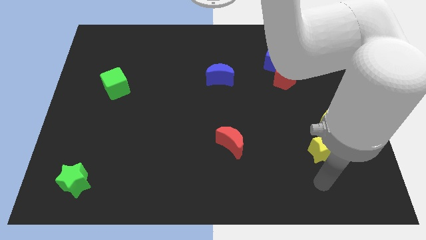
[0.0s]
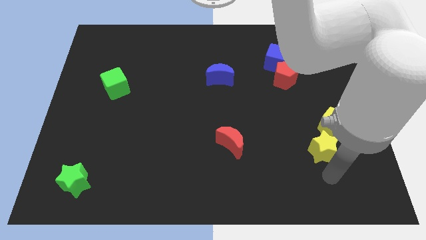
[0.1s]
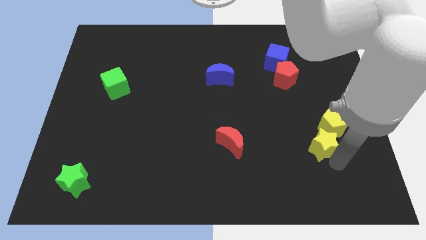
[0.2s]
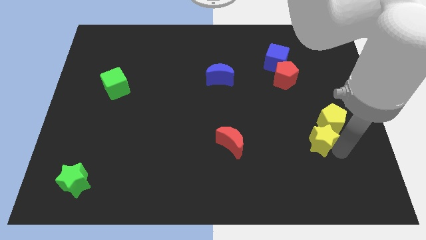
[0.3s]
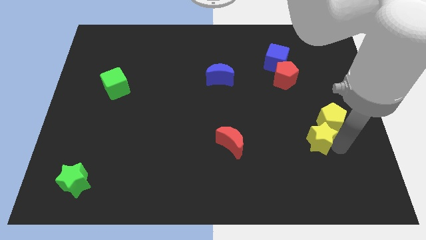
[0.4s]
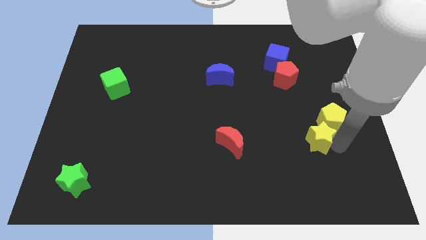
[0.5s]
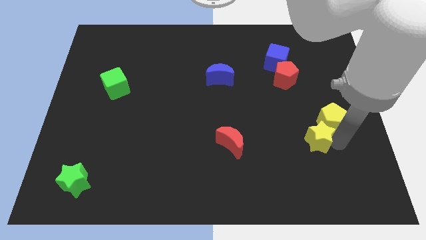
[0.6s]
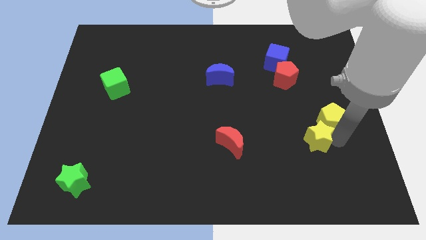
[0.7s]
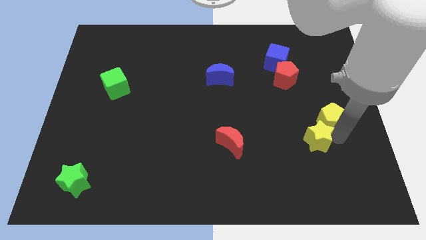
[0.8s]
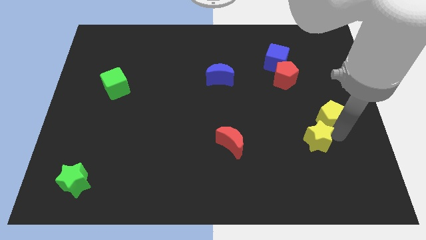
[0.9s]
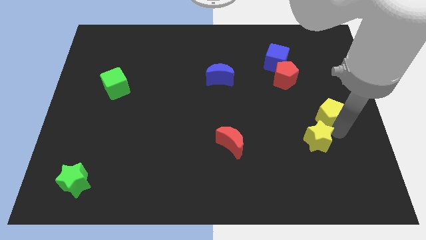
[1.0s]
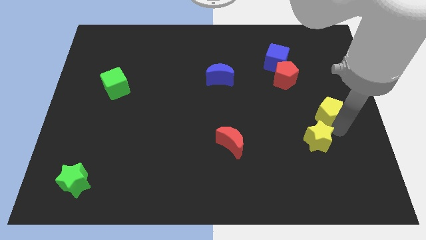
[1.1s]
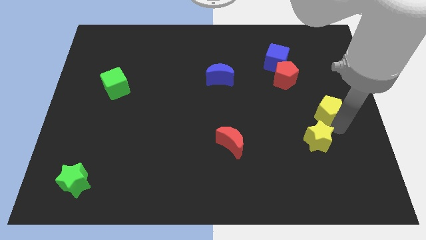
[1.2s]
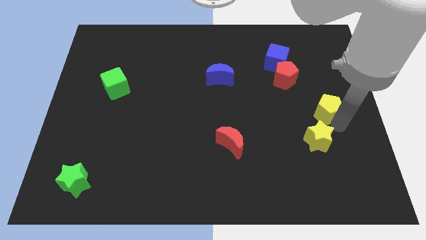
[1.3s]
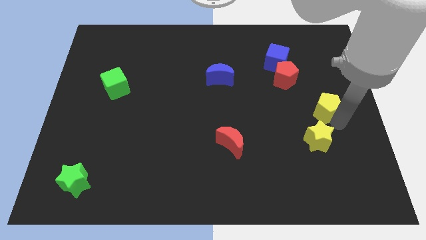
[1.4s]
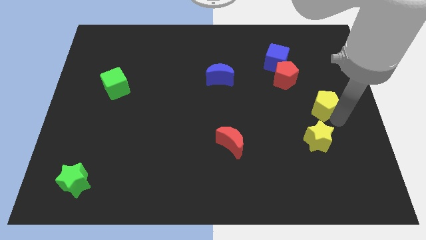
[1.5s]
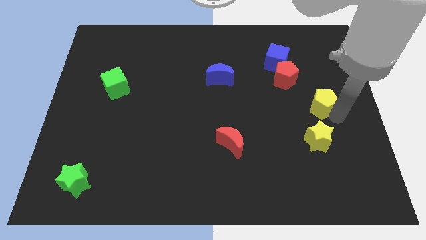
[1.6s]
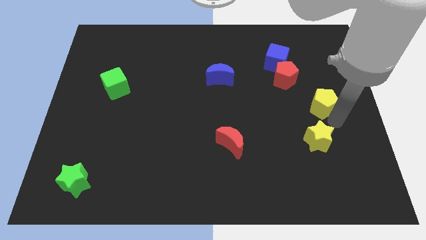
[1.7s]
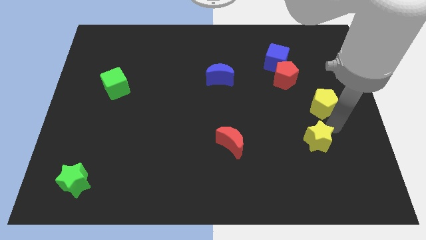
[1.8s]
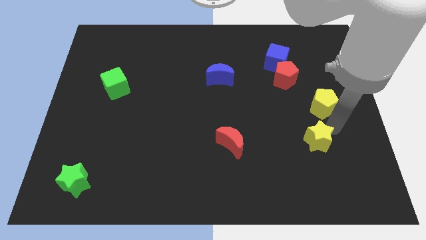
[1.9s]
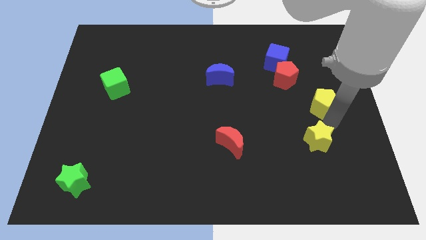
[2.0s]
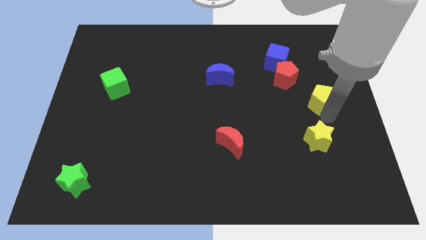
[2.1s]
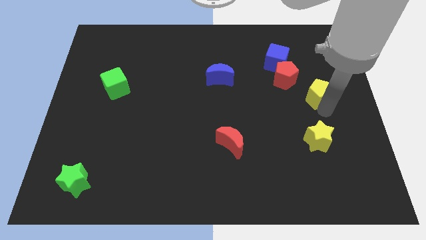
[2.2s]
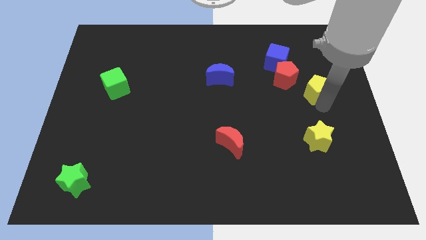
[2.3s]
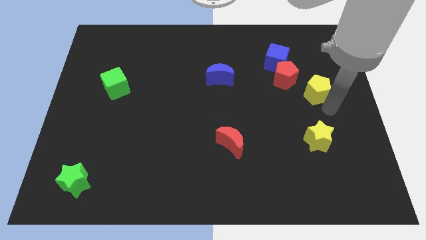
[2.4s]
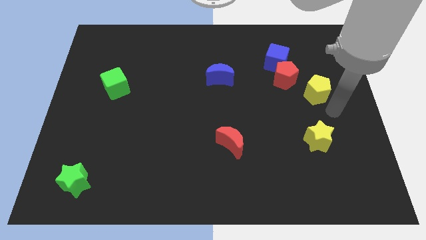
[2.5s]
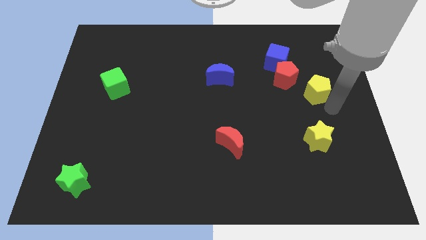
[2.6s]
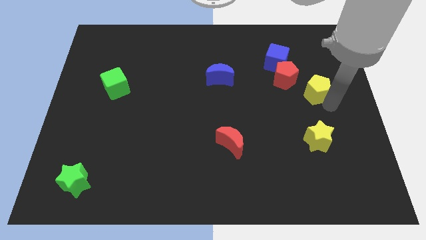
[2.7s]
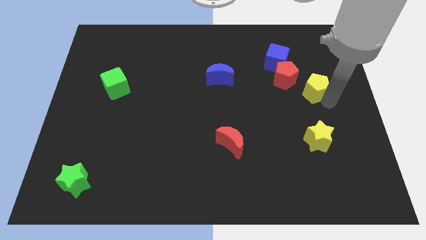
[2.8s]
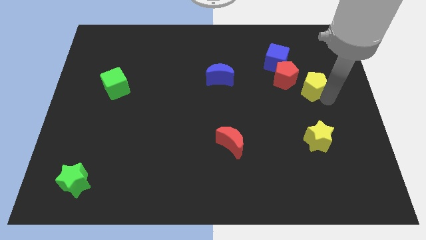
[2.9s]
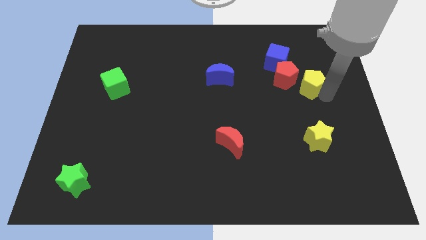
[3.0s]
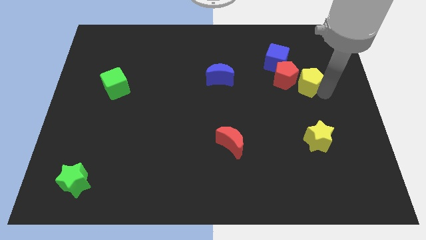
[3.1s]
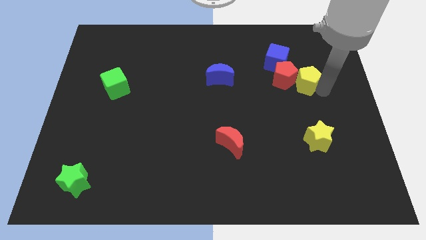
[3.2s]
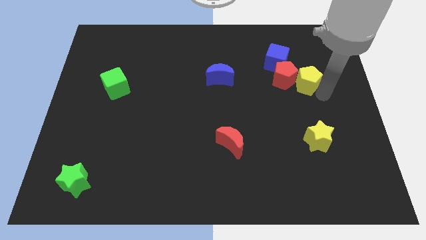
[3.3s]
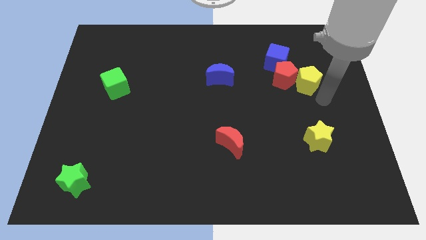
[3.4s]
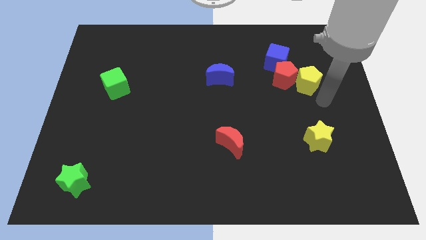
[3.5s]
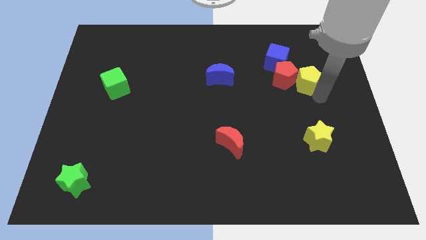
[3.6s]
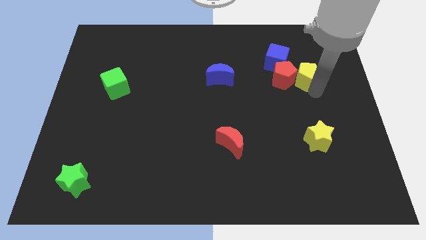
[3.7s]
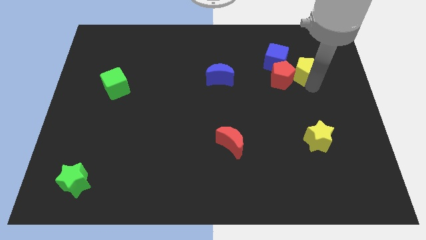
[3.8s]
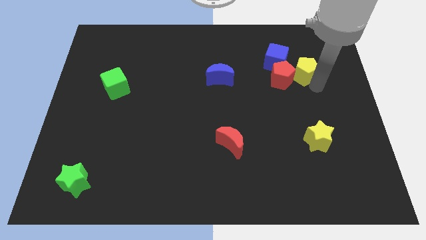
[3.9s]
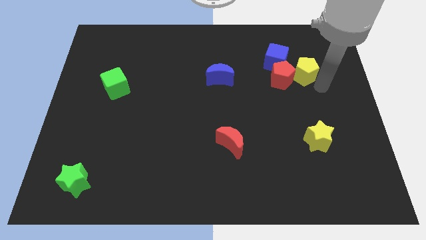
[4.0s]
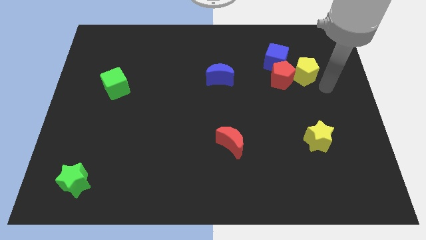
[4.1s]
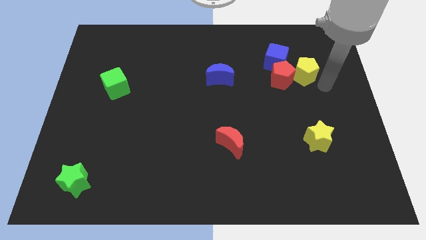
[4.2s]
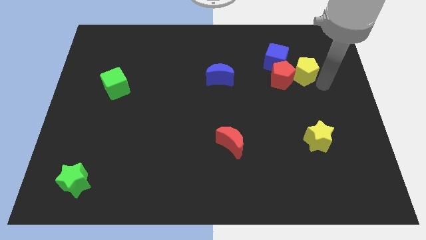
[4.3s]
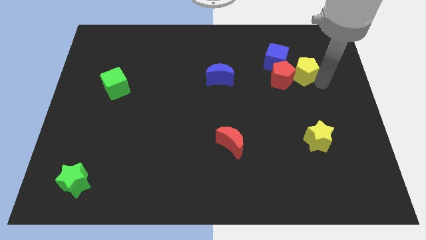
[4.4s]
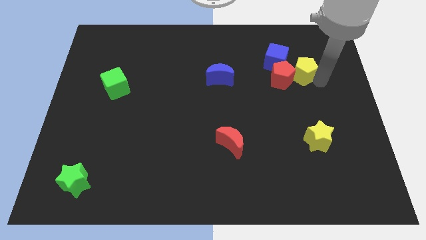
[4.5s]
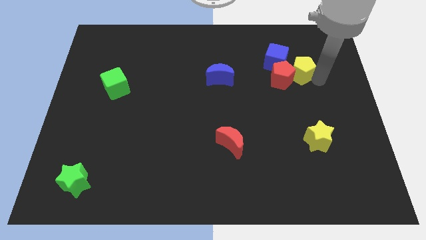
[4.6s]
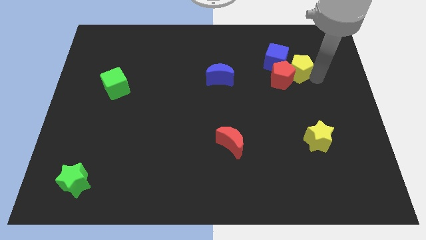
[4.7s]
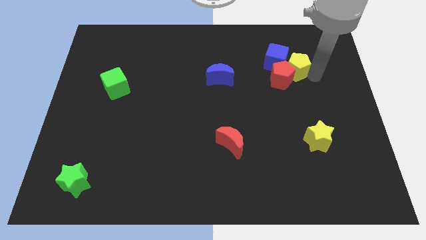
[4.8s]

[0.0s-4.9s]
put the yellow pentagon close to the blue cube

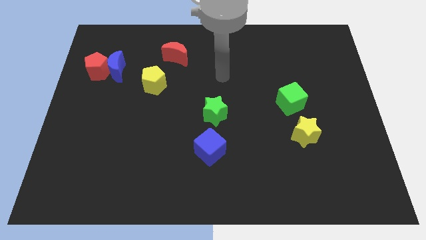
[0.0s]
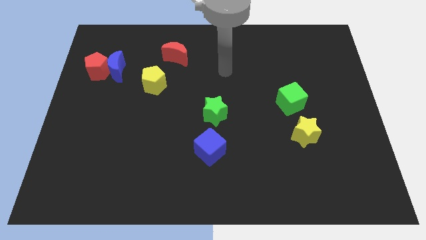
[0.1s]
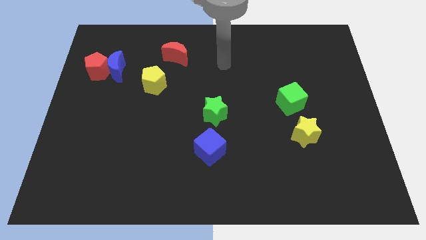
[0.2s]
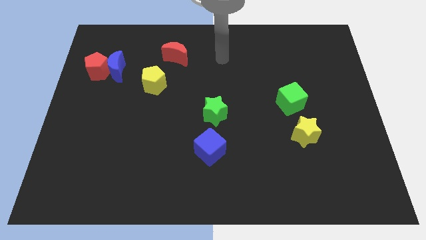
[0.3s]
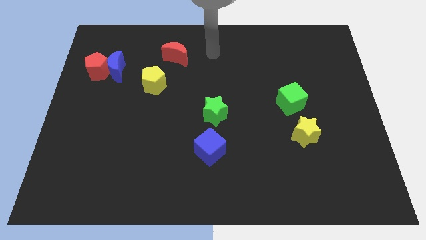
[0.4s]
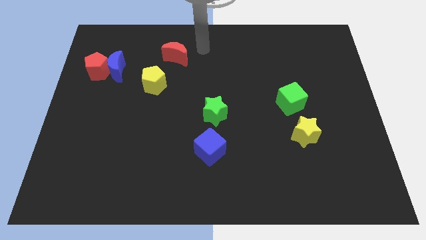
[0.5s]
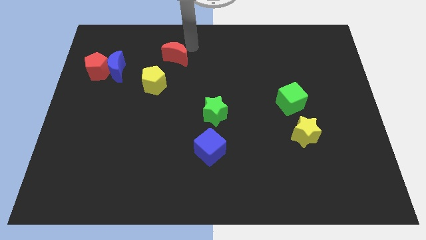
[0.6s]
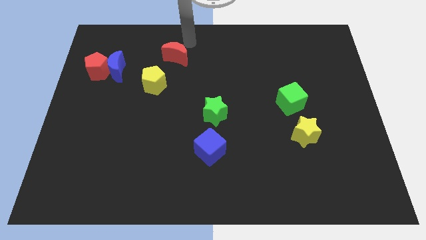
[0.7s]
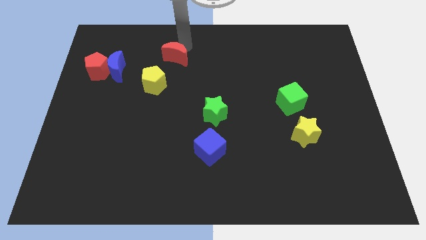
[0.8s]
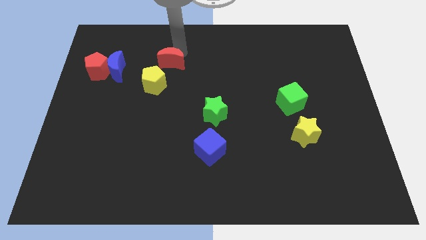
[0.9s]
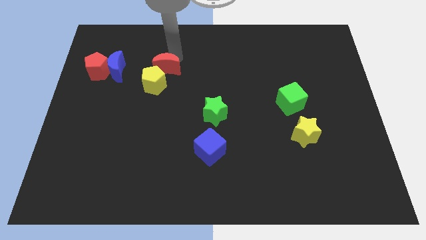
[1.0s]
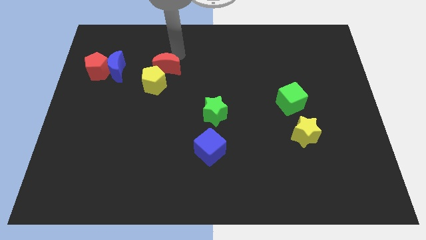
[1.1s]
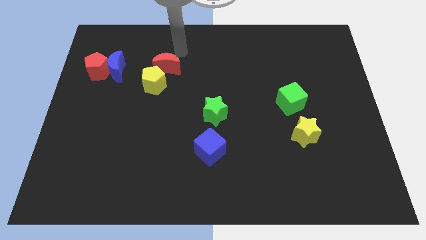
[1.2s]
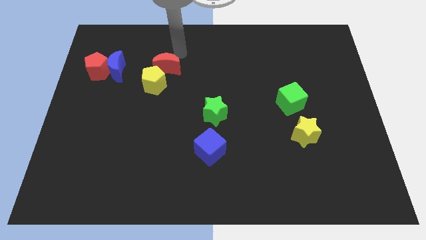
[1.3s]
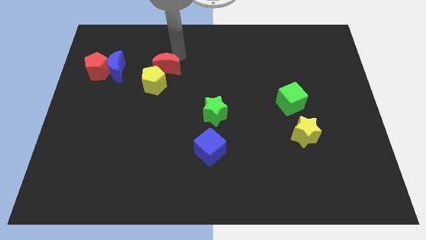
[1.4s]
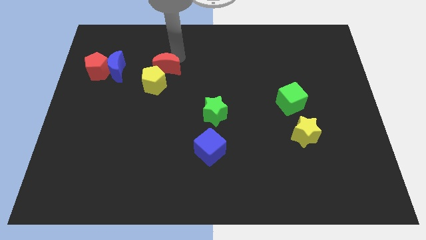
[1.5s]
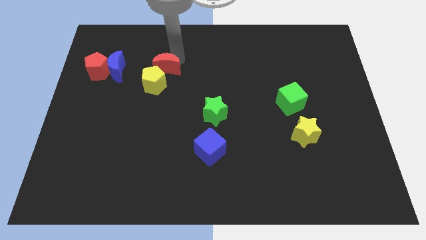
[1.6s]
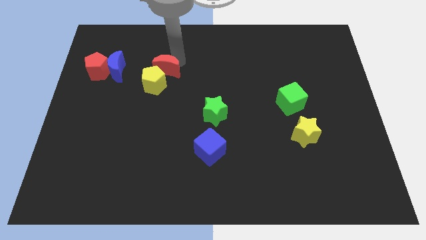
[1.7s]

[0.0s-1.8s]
push the red moon towards the yellow pentagon
